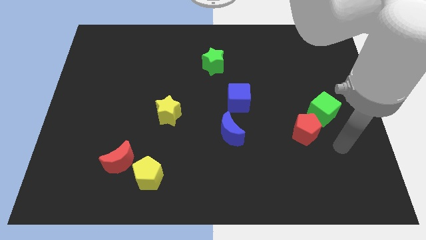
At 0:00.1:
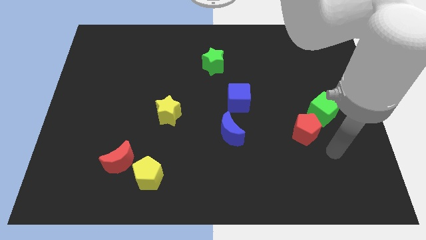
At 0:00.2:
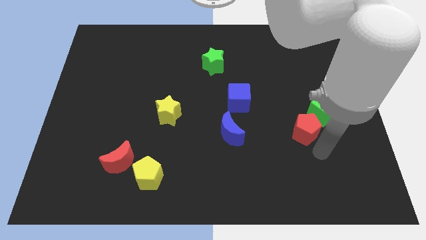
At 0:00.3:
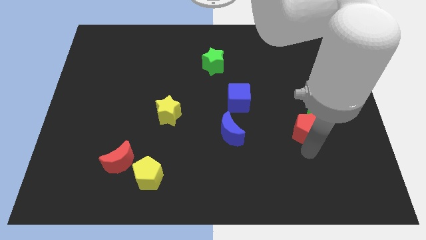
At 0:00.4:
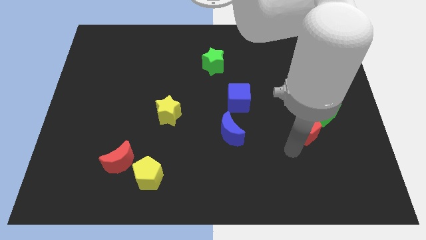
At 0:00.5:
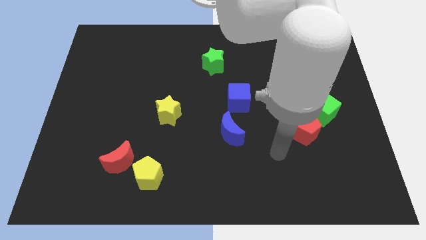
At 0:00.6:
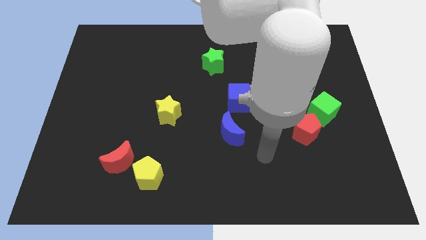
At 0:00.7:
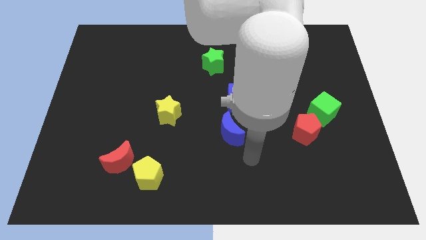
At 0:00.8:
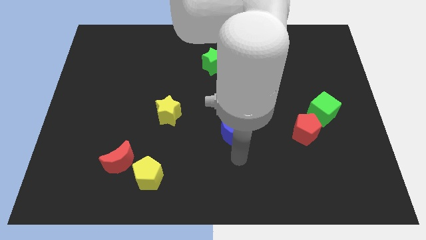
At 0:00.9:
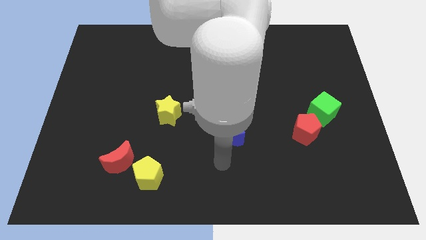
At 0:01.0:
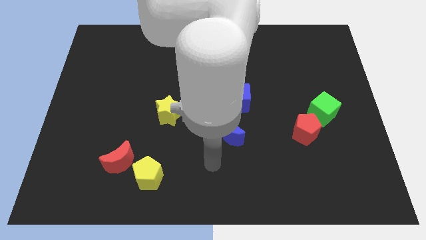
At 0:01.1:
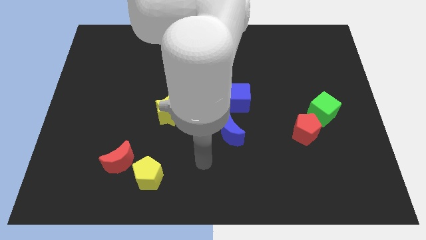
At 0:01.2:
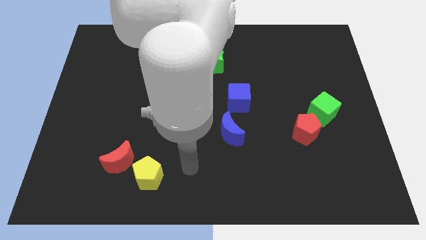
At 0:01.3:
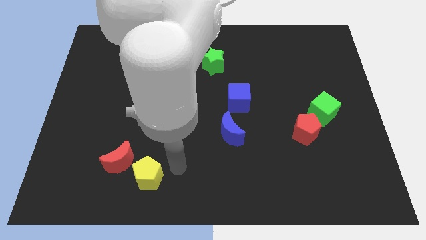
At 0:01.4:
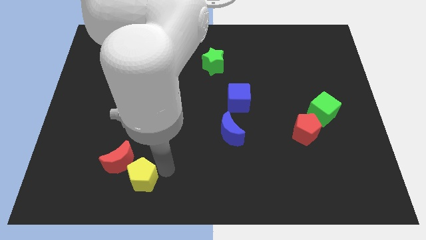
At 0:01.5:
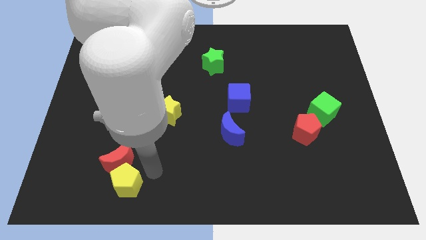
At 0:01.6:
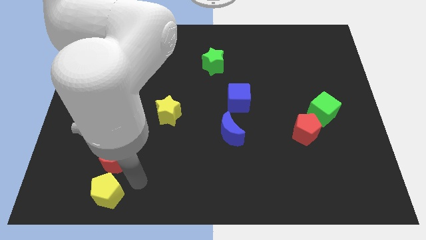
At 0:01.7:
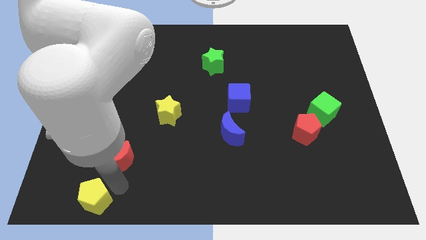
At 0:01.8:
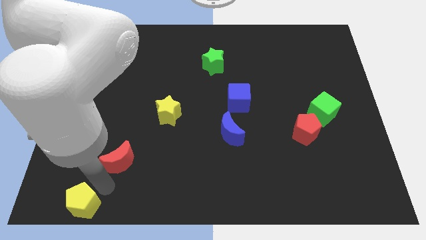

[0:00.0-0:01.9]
separate the red moon from the yellow pentagon

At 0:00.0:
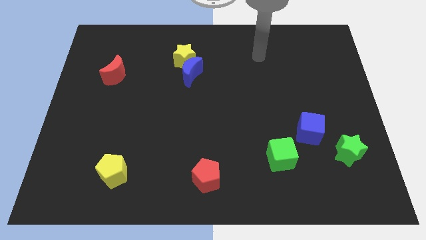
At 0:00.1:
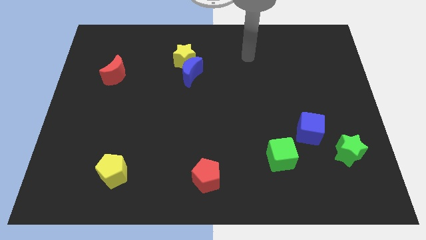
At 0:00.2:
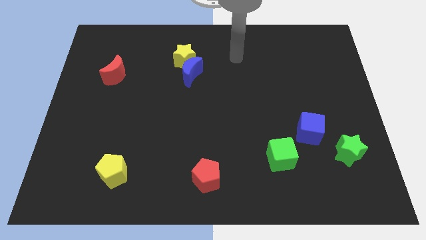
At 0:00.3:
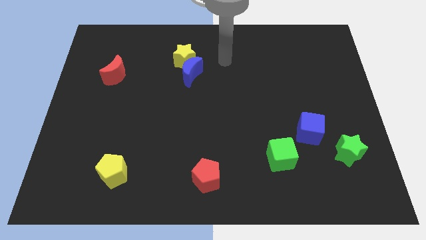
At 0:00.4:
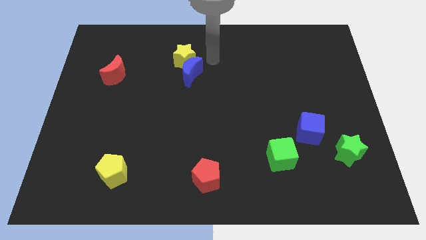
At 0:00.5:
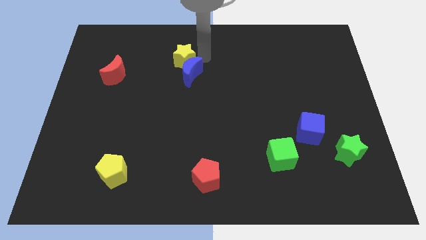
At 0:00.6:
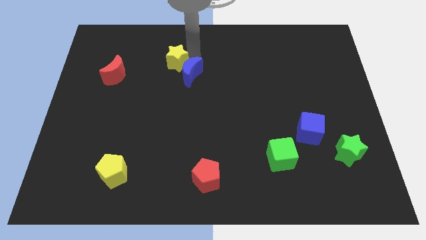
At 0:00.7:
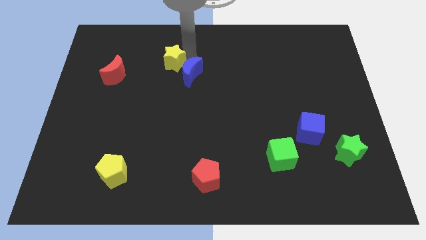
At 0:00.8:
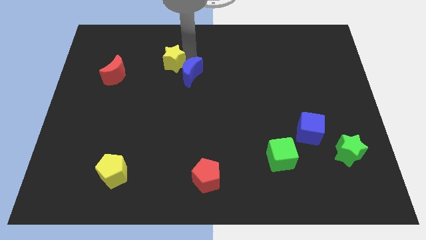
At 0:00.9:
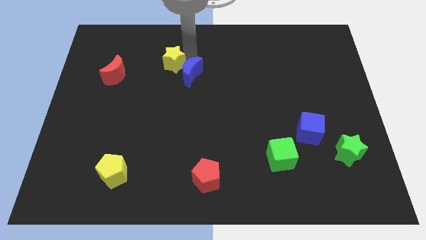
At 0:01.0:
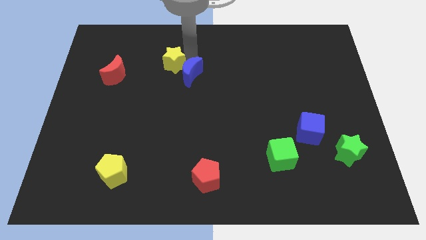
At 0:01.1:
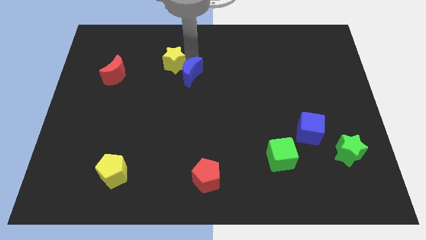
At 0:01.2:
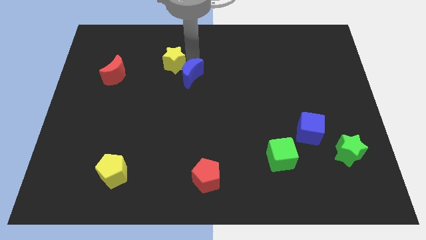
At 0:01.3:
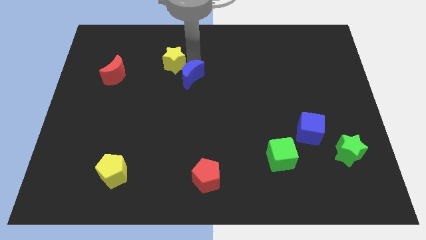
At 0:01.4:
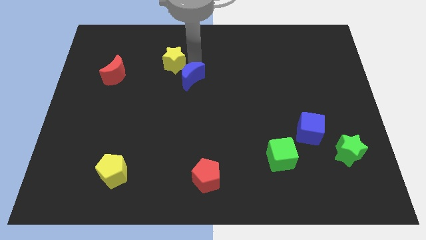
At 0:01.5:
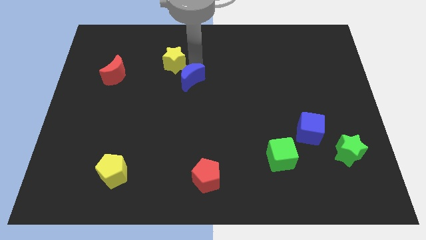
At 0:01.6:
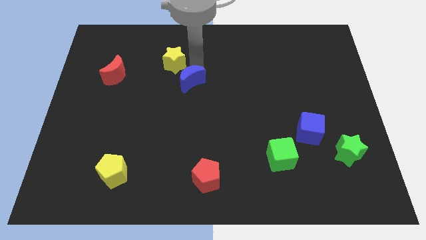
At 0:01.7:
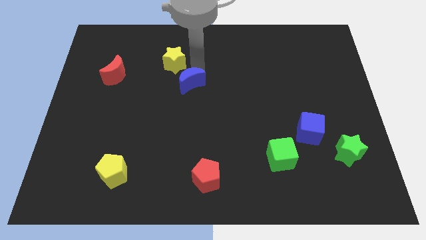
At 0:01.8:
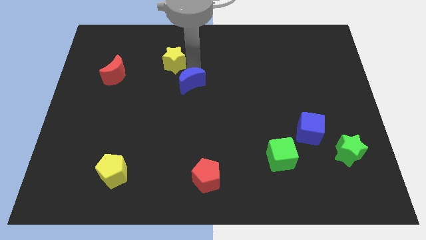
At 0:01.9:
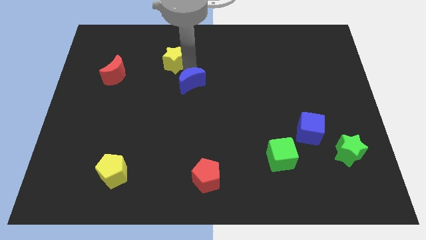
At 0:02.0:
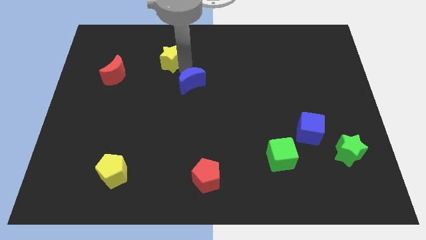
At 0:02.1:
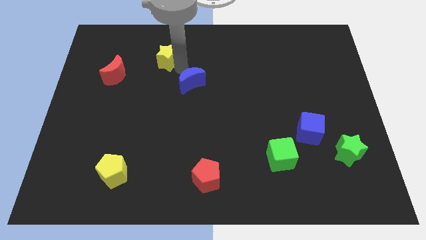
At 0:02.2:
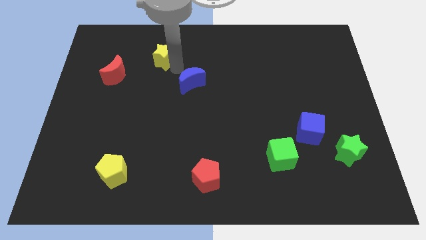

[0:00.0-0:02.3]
move the blue moon away from the yellow star

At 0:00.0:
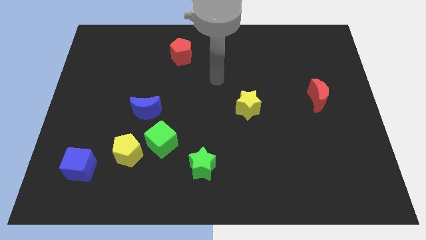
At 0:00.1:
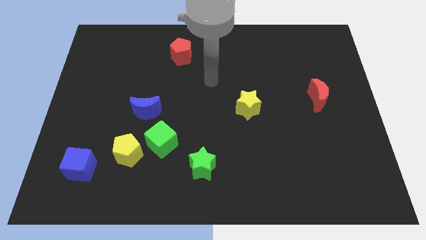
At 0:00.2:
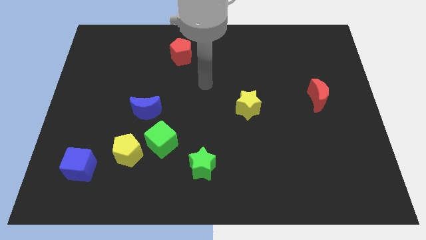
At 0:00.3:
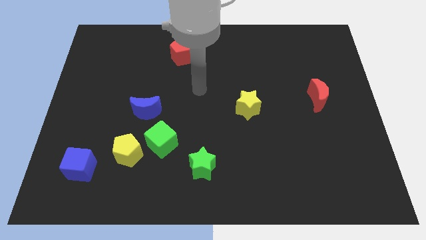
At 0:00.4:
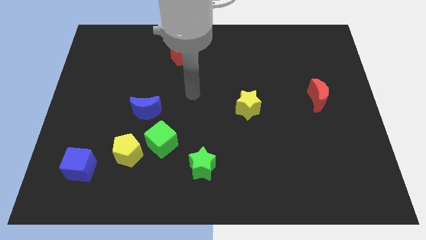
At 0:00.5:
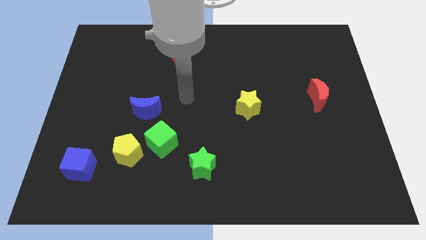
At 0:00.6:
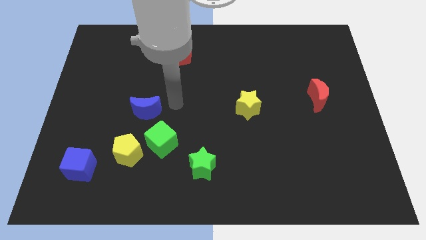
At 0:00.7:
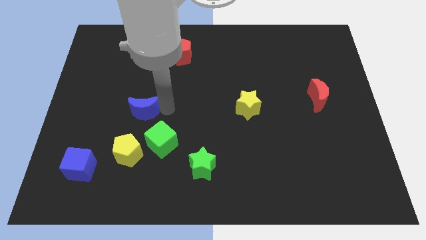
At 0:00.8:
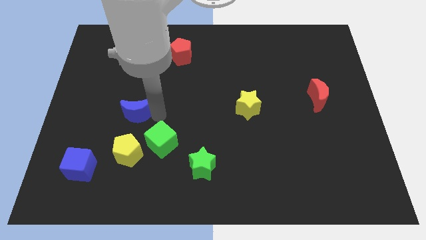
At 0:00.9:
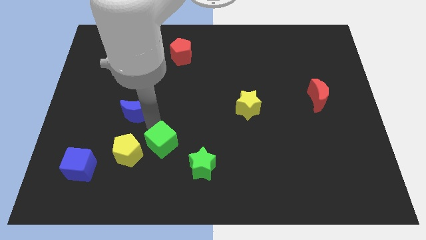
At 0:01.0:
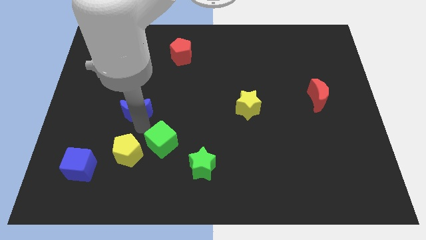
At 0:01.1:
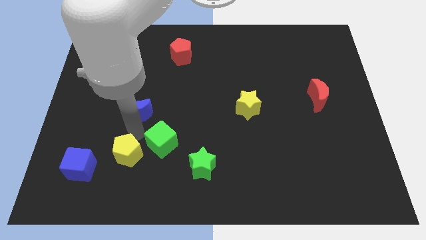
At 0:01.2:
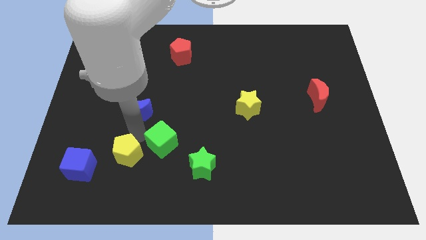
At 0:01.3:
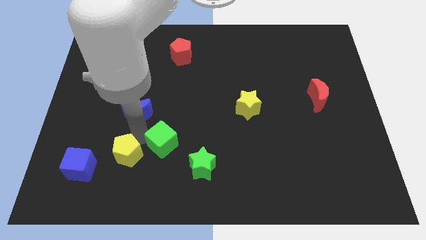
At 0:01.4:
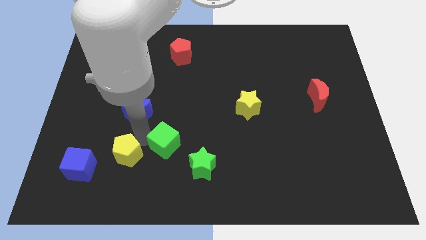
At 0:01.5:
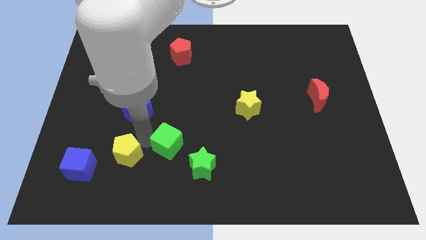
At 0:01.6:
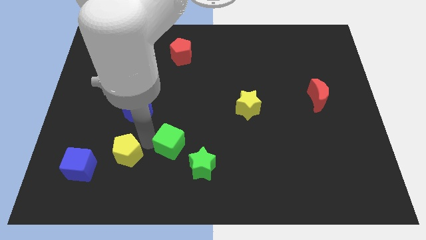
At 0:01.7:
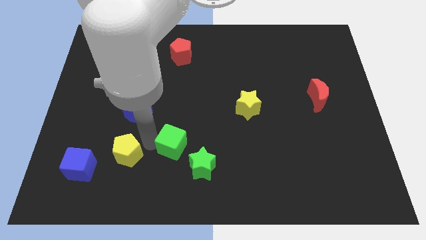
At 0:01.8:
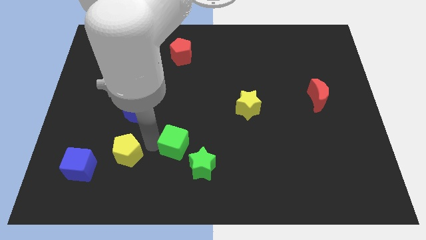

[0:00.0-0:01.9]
move the green cube away from the yellow pentagon and blue moon

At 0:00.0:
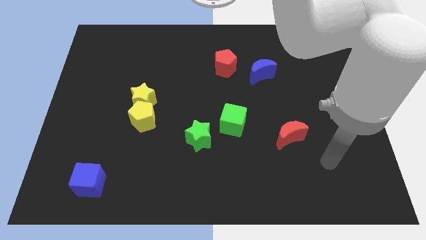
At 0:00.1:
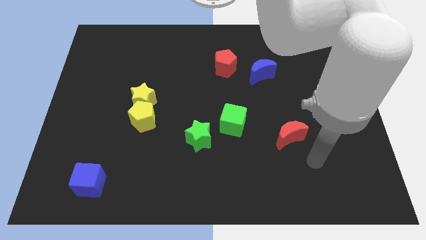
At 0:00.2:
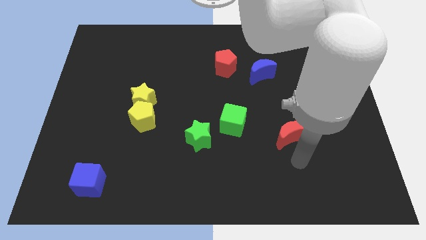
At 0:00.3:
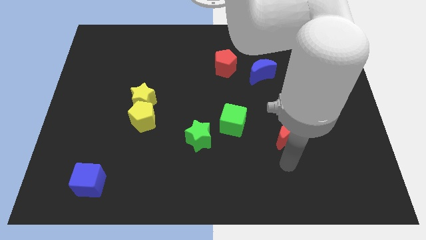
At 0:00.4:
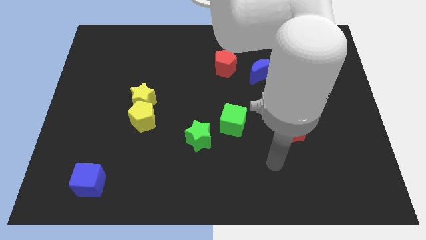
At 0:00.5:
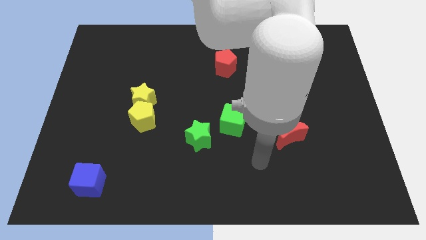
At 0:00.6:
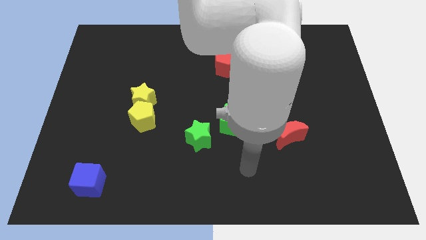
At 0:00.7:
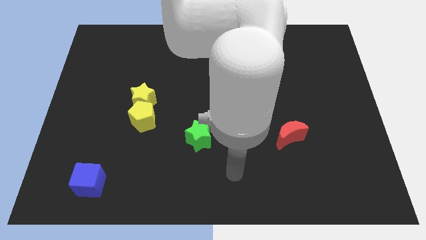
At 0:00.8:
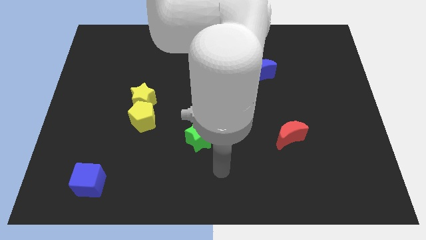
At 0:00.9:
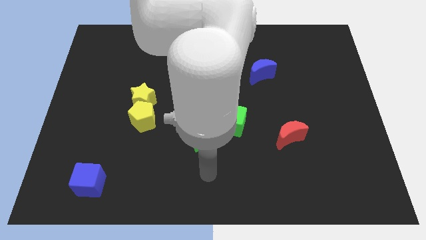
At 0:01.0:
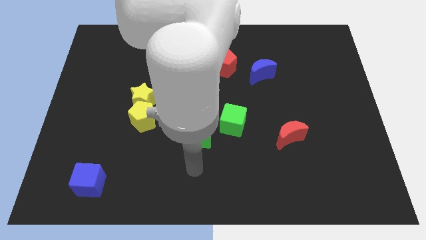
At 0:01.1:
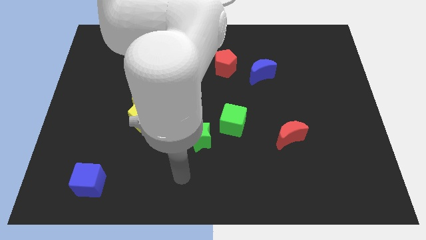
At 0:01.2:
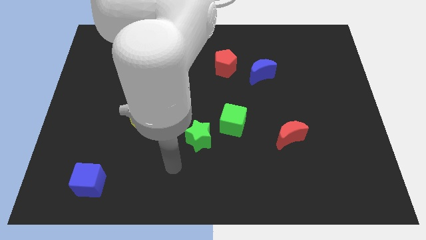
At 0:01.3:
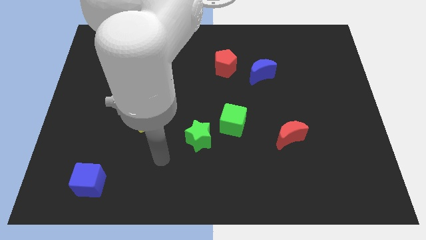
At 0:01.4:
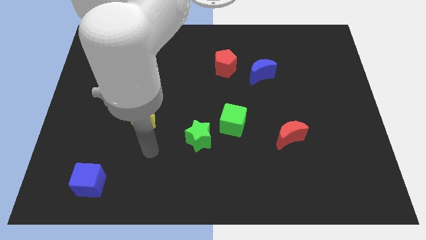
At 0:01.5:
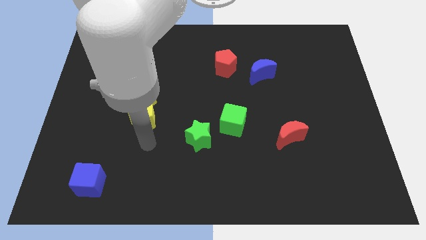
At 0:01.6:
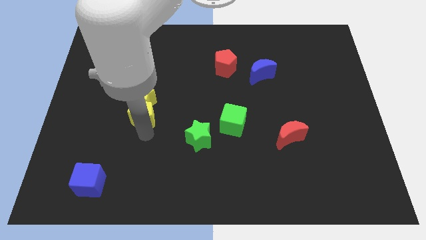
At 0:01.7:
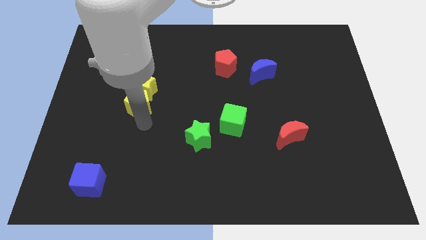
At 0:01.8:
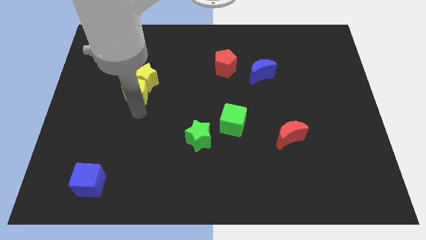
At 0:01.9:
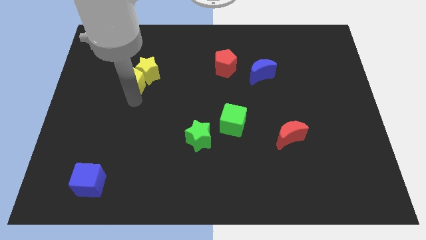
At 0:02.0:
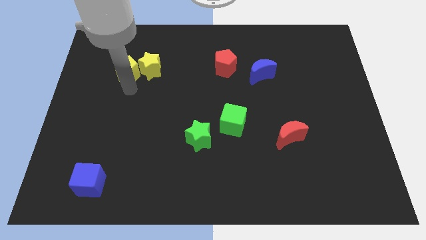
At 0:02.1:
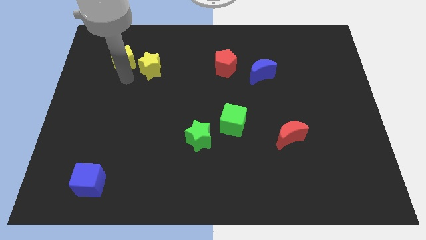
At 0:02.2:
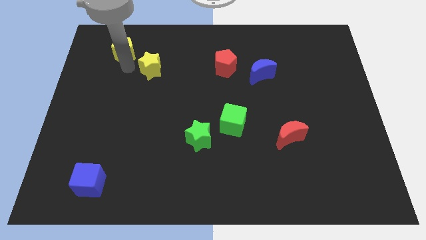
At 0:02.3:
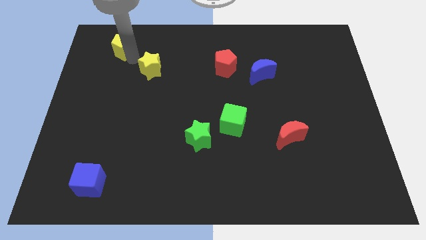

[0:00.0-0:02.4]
move the yellow star away from the yellow pentagon

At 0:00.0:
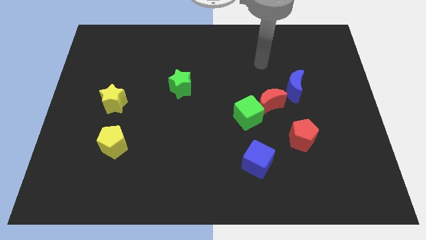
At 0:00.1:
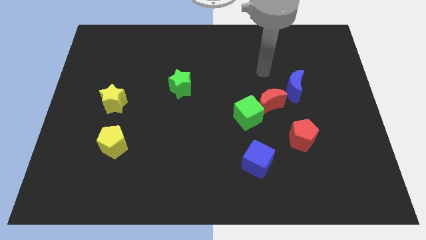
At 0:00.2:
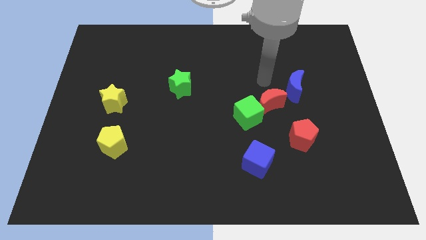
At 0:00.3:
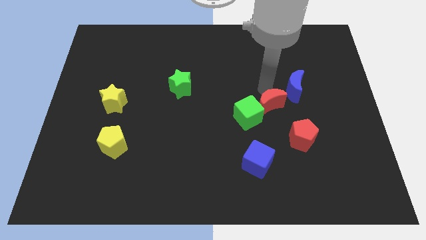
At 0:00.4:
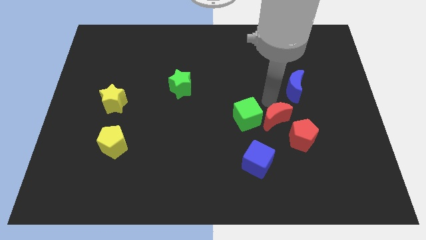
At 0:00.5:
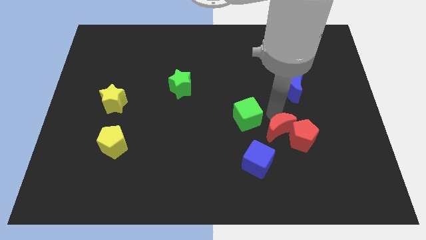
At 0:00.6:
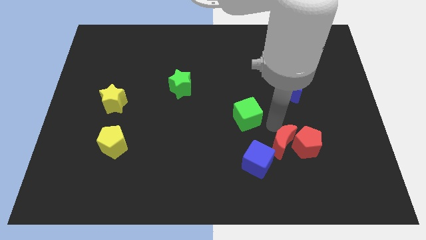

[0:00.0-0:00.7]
pull the green cube apart from the red moon

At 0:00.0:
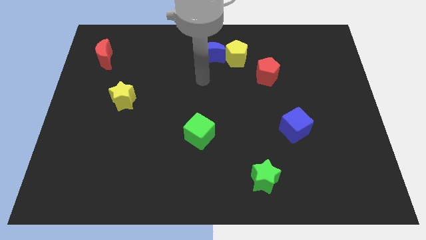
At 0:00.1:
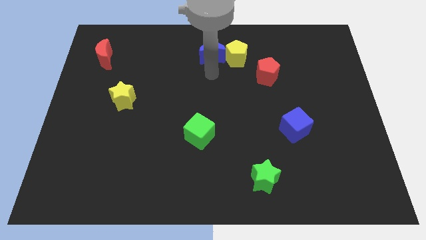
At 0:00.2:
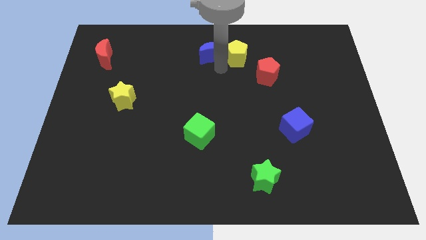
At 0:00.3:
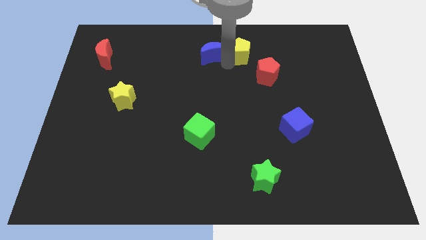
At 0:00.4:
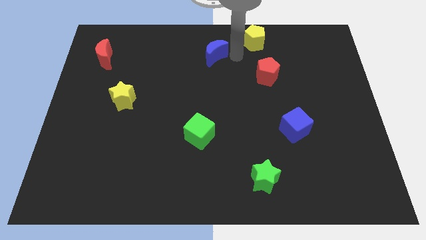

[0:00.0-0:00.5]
separate the blue moon from the yellow pentagon
